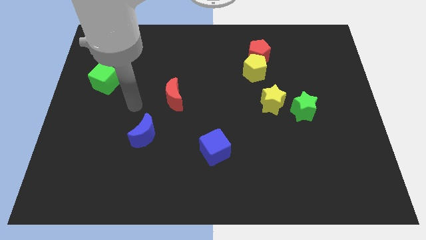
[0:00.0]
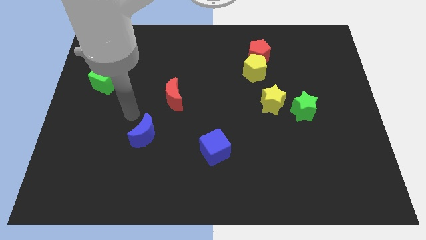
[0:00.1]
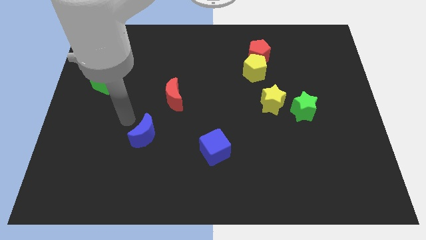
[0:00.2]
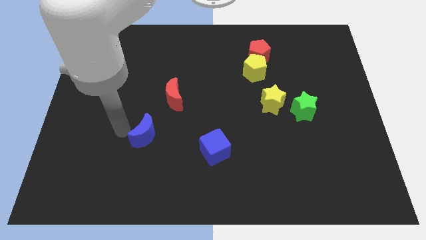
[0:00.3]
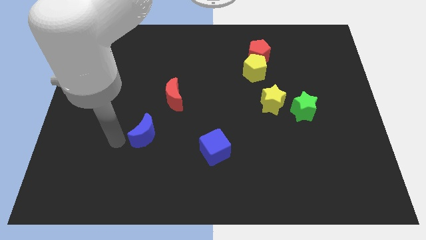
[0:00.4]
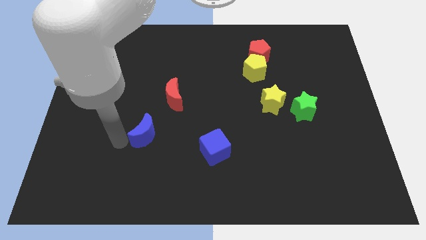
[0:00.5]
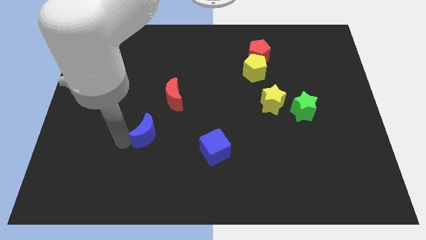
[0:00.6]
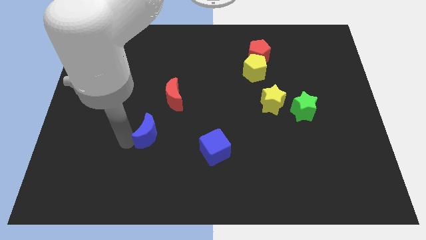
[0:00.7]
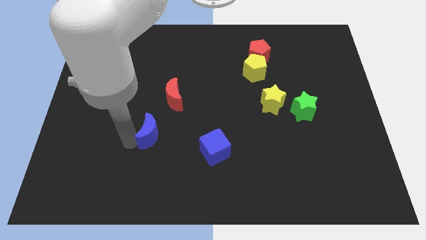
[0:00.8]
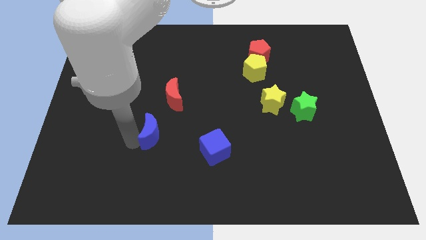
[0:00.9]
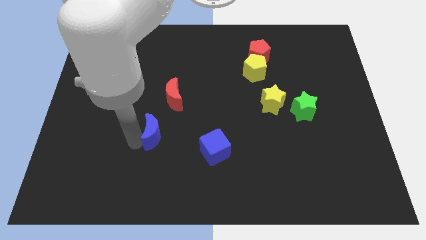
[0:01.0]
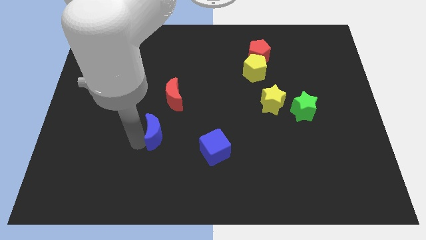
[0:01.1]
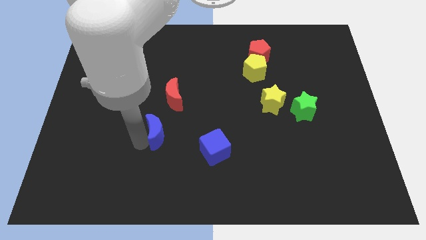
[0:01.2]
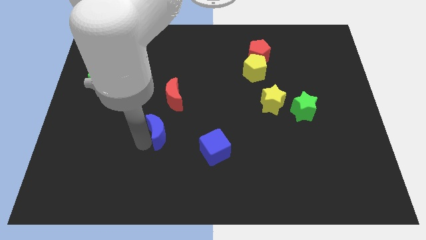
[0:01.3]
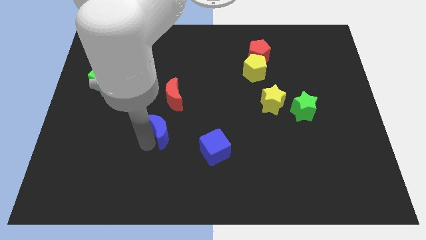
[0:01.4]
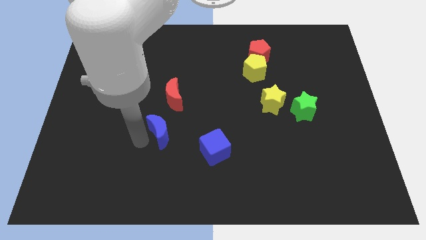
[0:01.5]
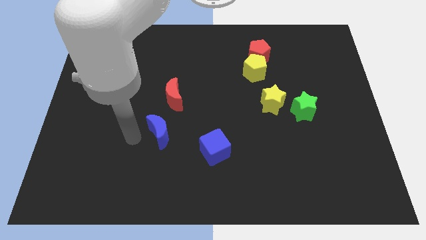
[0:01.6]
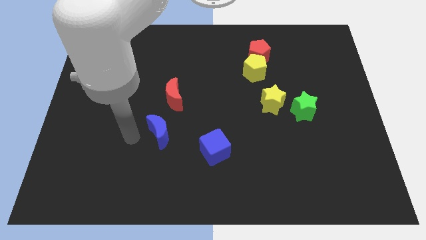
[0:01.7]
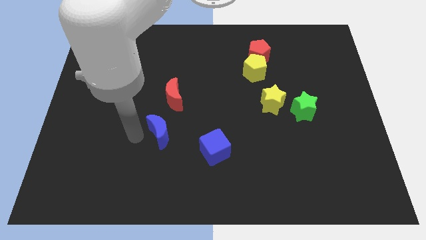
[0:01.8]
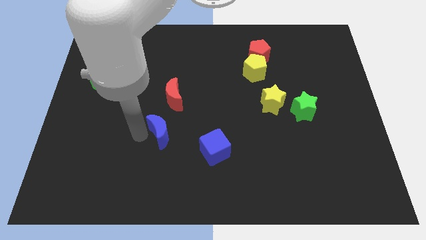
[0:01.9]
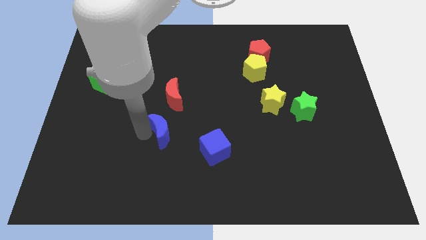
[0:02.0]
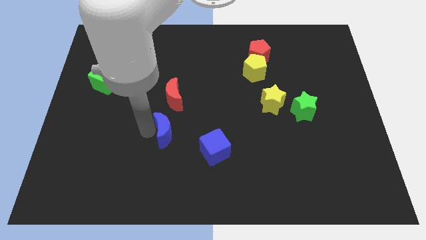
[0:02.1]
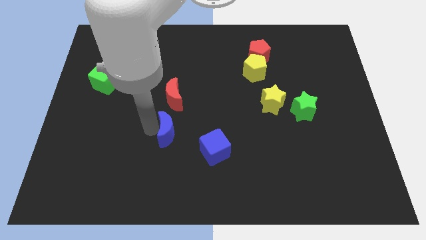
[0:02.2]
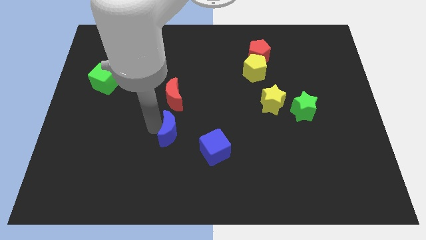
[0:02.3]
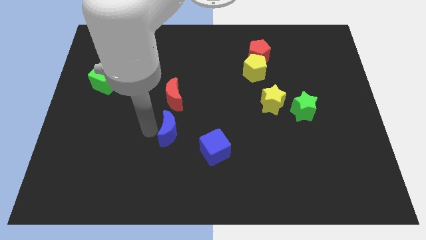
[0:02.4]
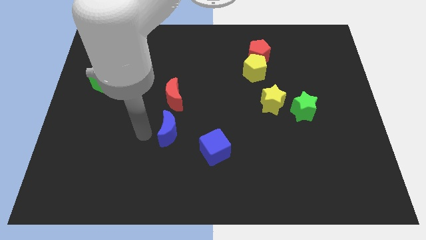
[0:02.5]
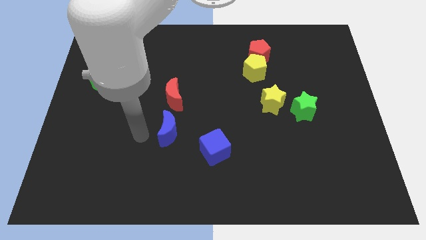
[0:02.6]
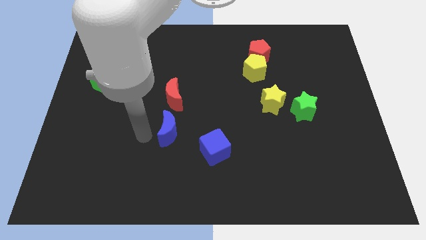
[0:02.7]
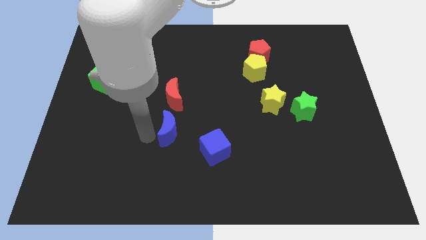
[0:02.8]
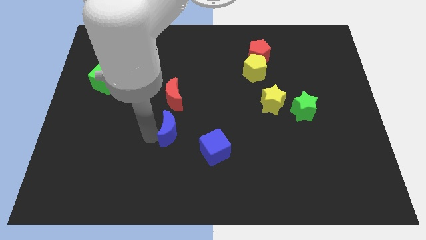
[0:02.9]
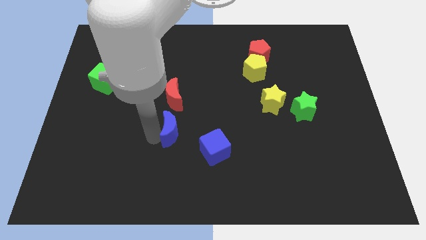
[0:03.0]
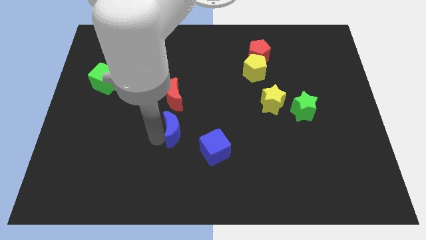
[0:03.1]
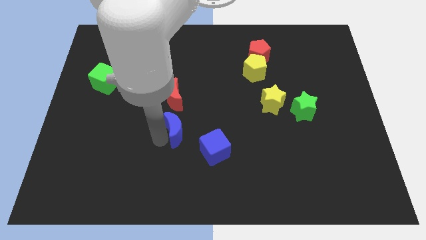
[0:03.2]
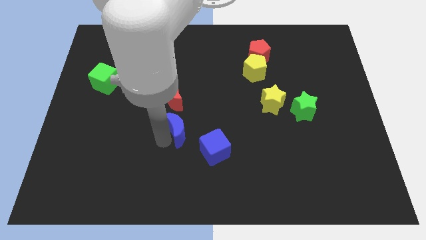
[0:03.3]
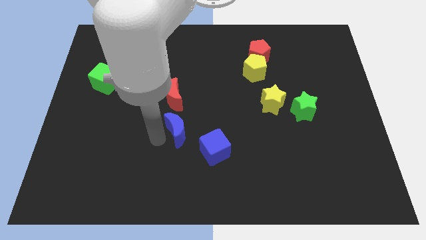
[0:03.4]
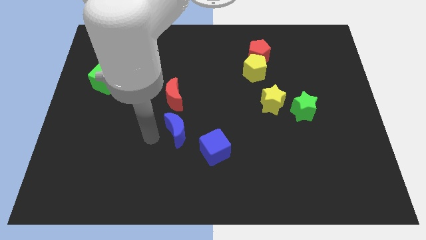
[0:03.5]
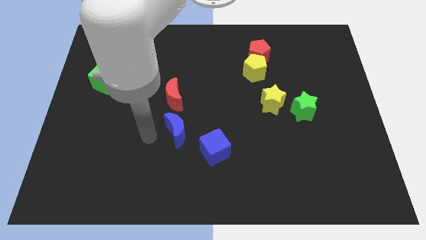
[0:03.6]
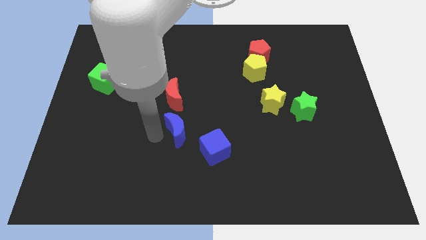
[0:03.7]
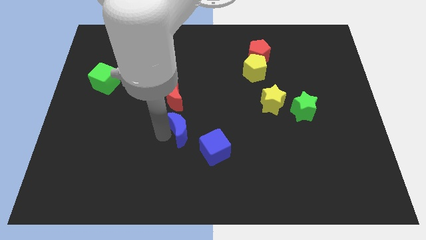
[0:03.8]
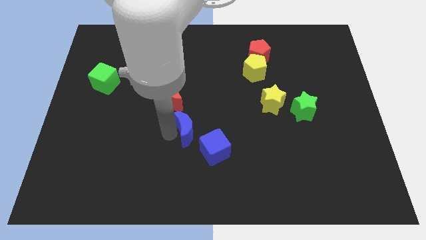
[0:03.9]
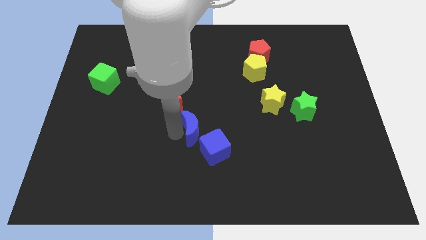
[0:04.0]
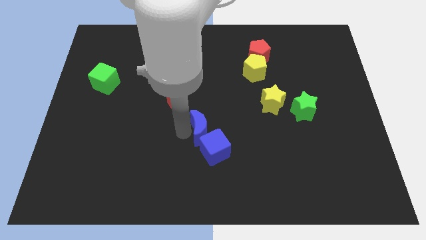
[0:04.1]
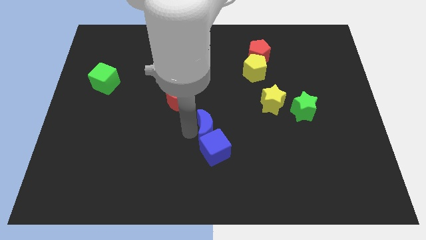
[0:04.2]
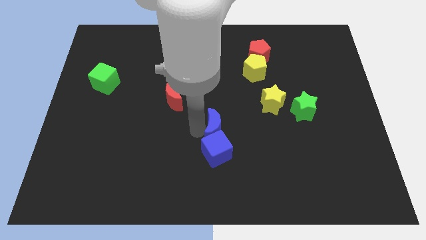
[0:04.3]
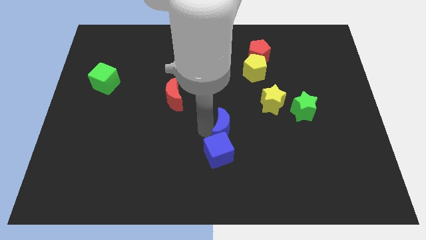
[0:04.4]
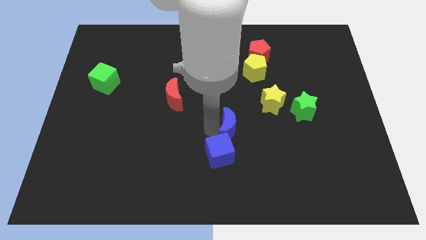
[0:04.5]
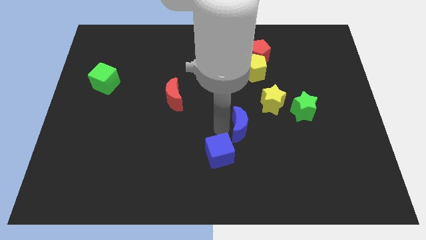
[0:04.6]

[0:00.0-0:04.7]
push the blue moon to the right

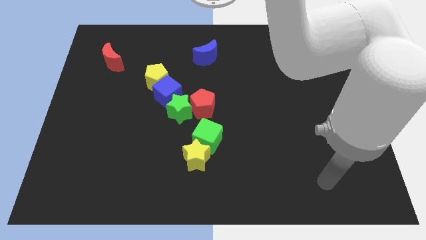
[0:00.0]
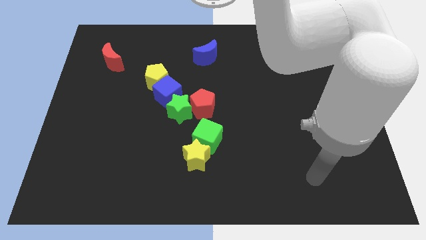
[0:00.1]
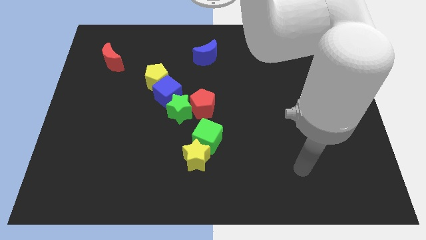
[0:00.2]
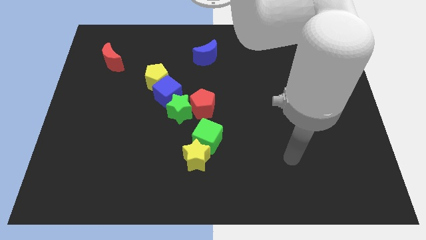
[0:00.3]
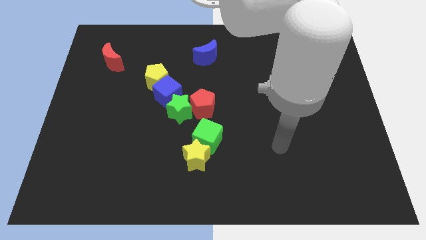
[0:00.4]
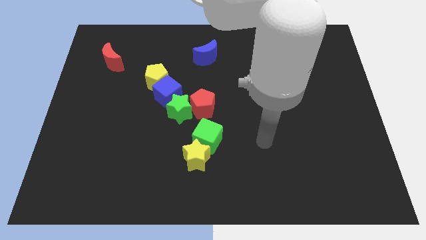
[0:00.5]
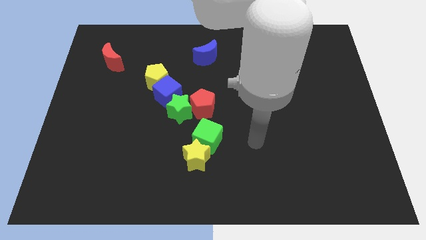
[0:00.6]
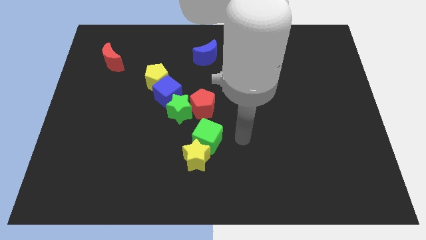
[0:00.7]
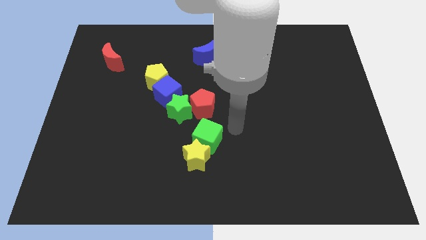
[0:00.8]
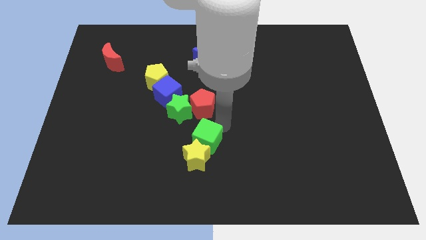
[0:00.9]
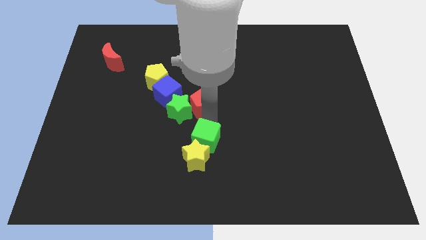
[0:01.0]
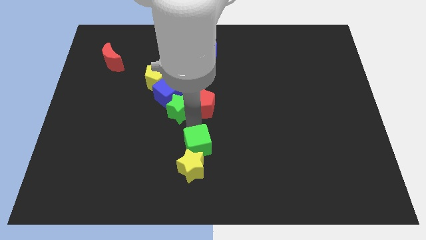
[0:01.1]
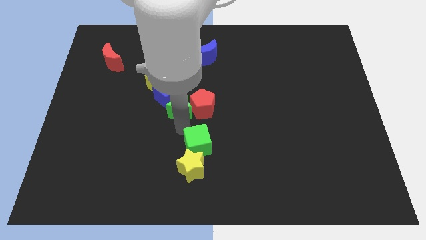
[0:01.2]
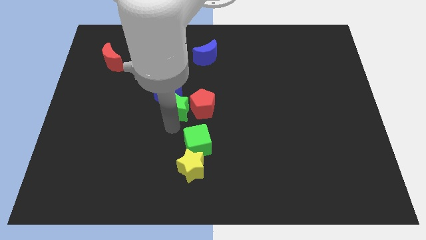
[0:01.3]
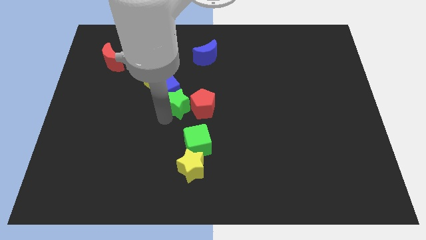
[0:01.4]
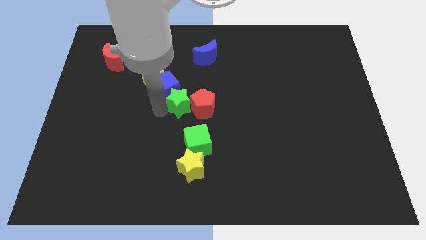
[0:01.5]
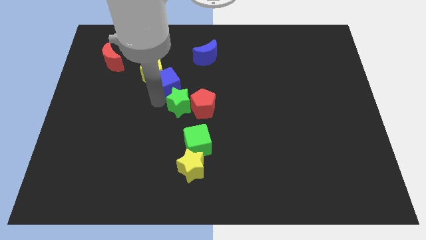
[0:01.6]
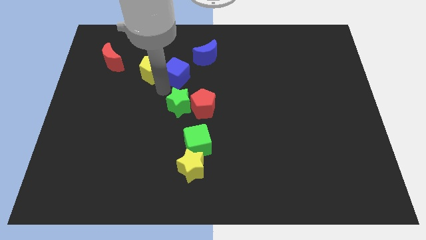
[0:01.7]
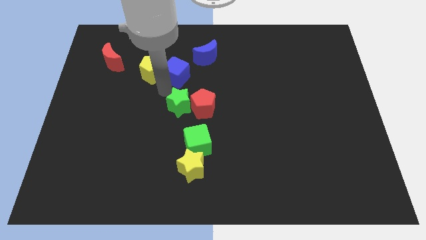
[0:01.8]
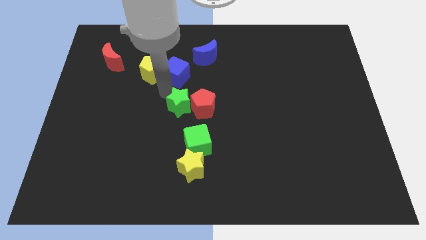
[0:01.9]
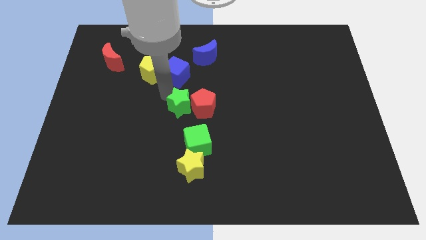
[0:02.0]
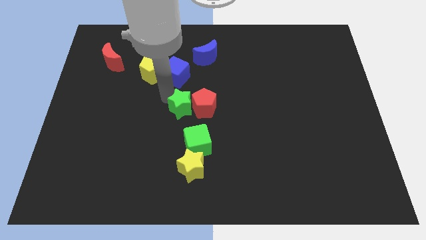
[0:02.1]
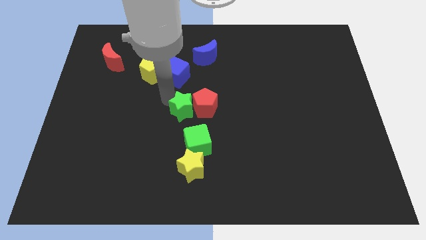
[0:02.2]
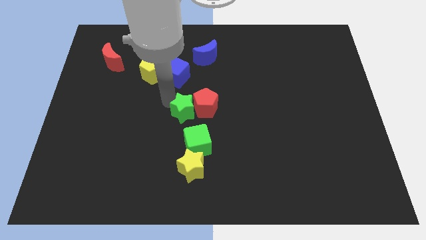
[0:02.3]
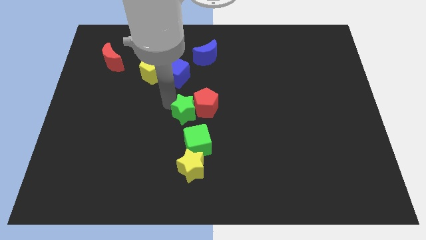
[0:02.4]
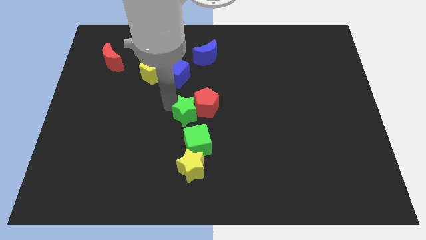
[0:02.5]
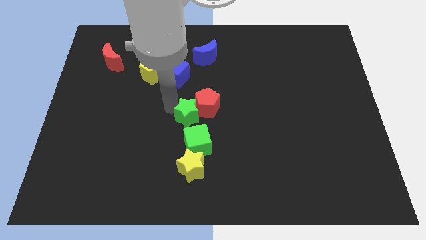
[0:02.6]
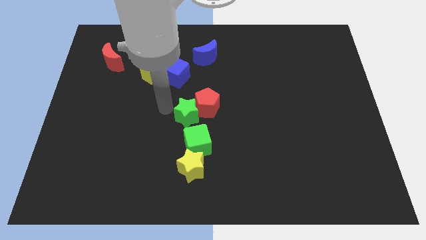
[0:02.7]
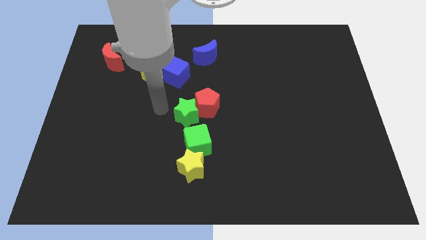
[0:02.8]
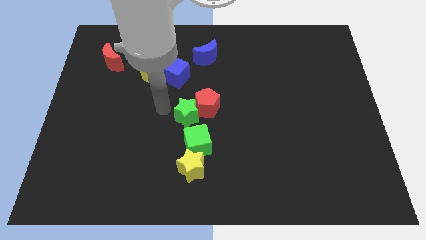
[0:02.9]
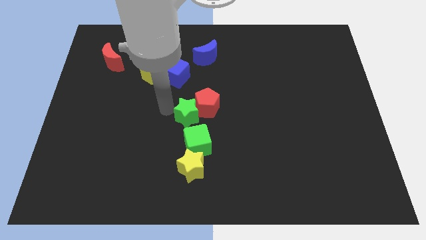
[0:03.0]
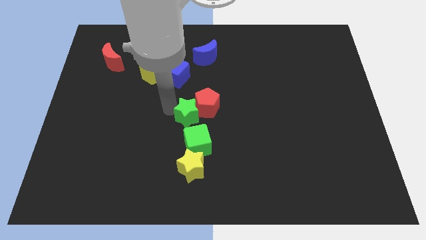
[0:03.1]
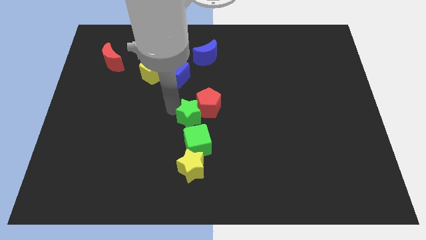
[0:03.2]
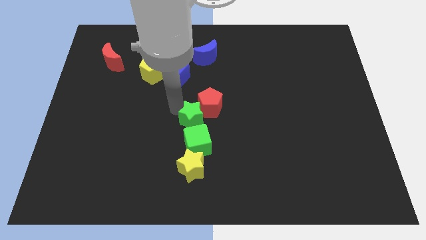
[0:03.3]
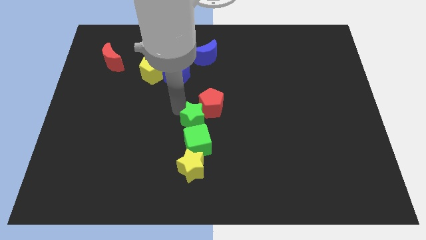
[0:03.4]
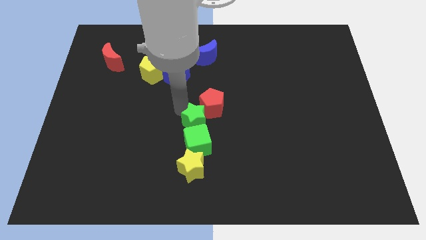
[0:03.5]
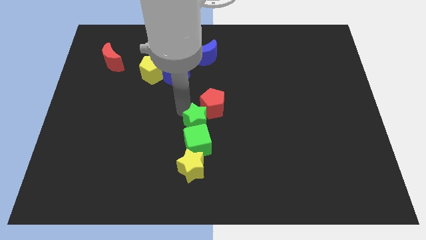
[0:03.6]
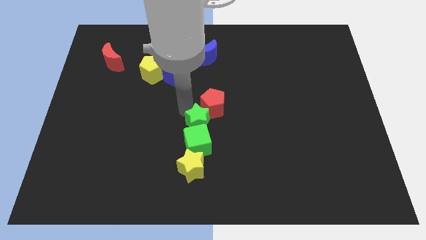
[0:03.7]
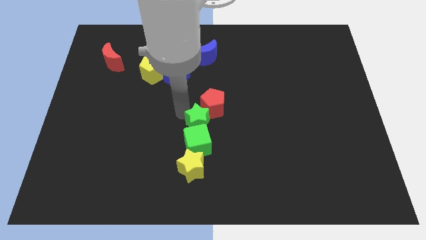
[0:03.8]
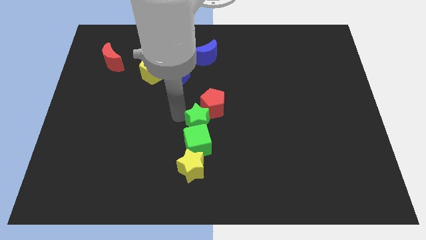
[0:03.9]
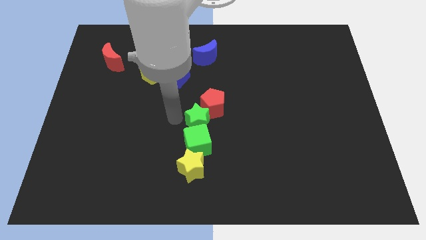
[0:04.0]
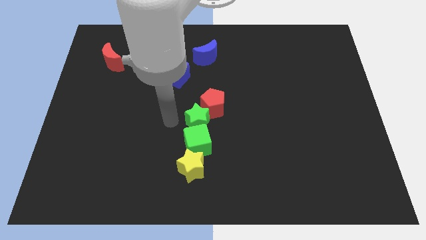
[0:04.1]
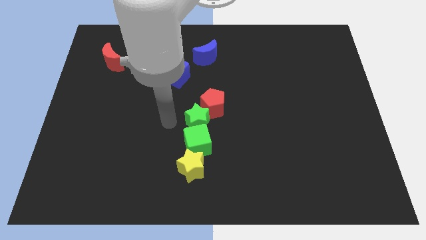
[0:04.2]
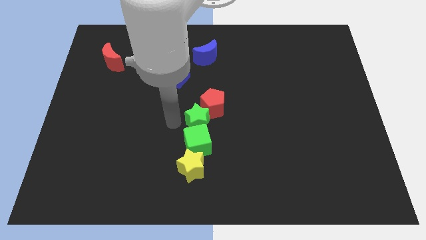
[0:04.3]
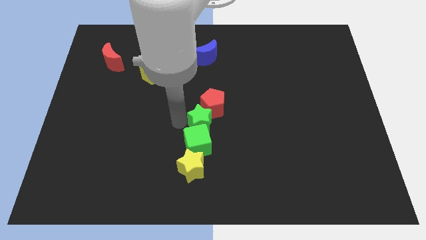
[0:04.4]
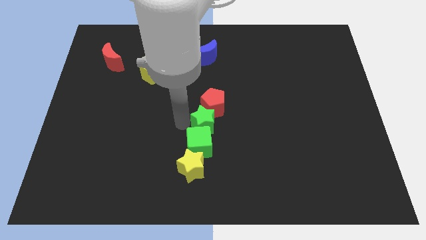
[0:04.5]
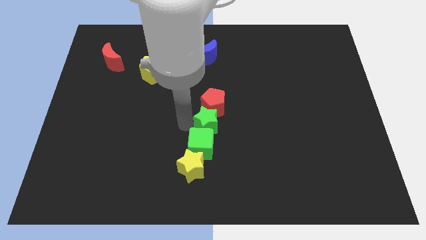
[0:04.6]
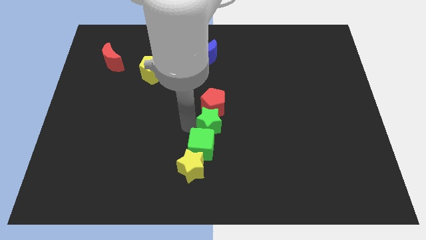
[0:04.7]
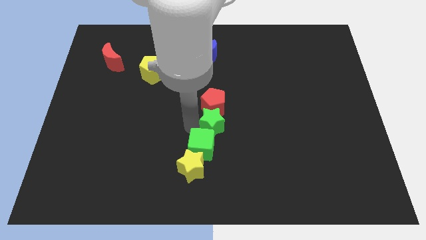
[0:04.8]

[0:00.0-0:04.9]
slide the green star right somewhat
